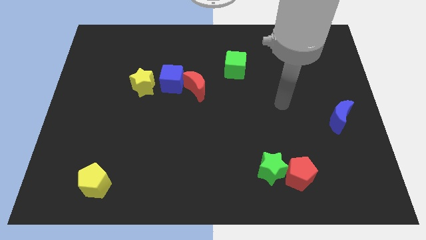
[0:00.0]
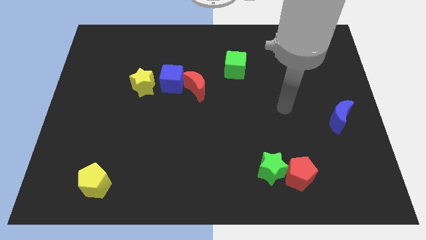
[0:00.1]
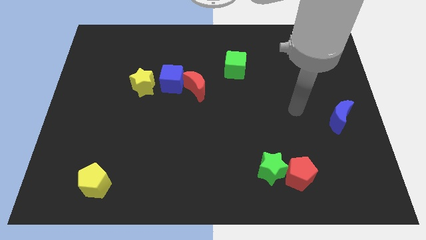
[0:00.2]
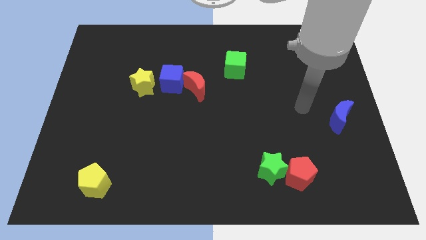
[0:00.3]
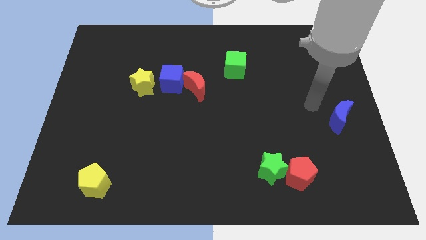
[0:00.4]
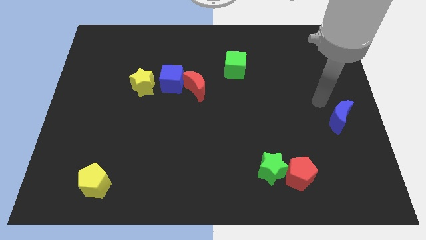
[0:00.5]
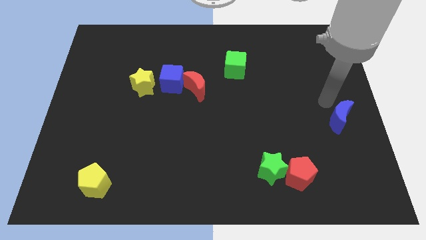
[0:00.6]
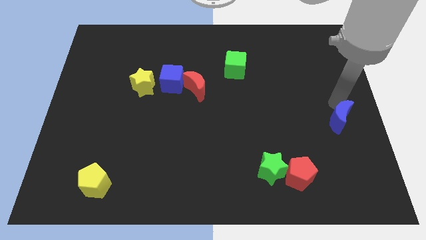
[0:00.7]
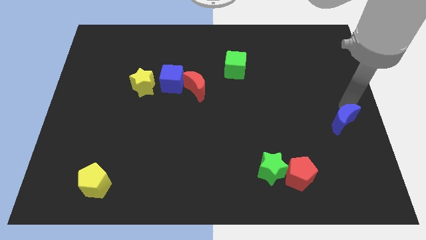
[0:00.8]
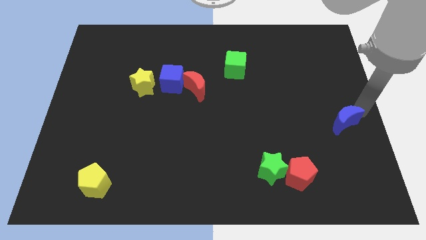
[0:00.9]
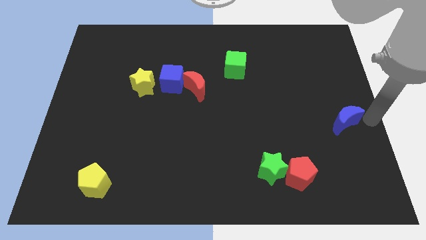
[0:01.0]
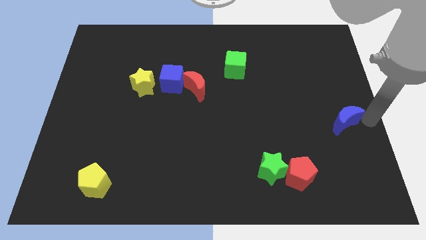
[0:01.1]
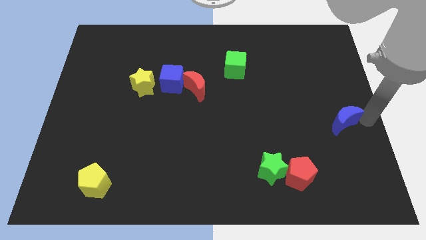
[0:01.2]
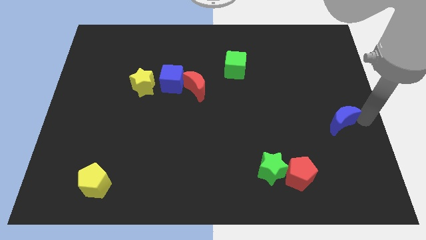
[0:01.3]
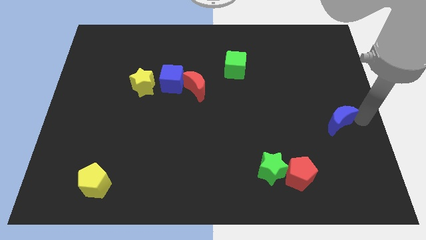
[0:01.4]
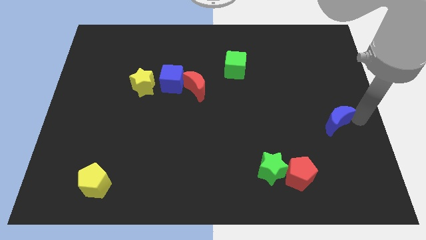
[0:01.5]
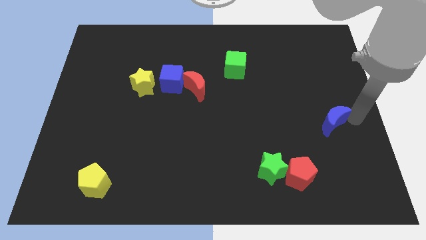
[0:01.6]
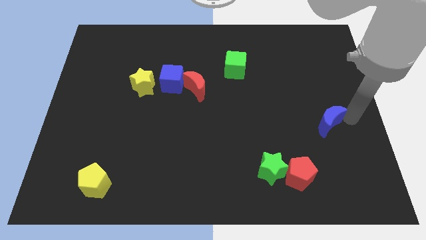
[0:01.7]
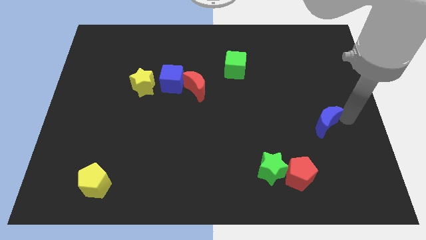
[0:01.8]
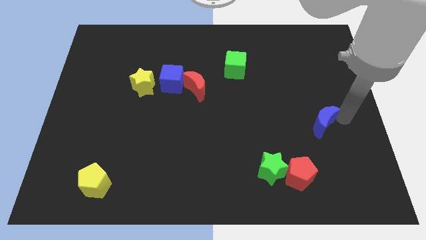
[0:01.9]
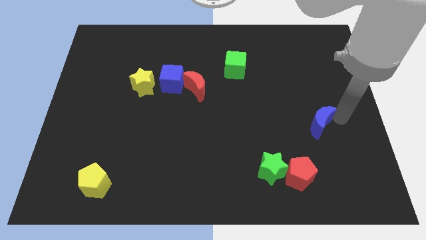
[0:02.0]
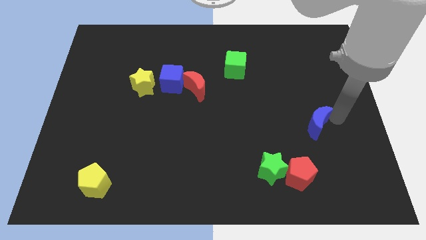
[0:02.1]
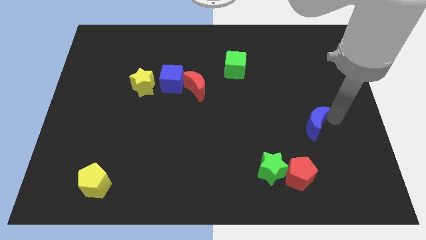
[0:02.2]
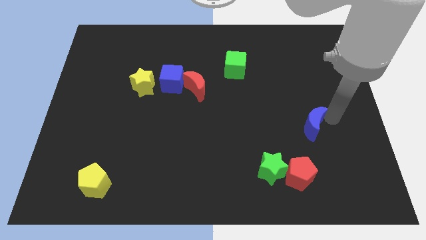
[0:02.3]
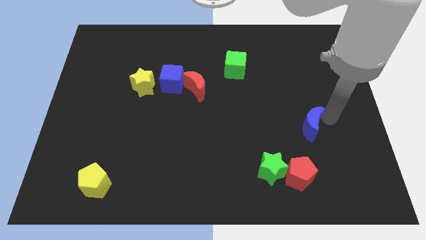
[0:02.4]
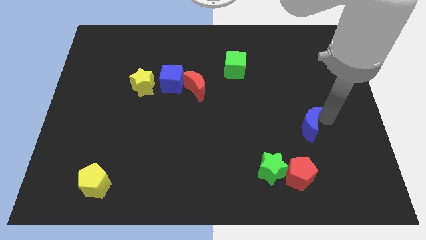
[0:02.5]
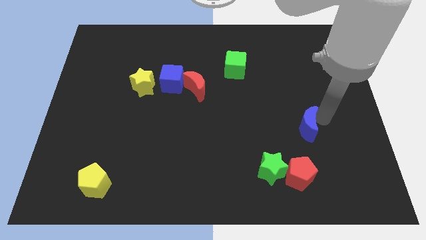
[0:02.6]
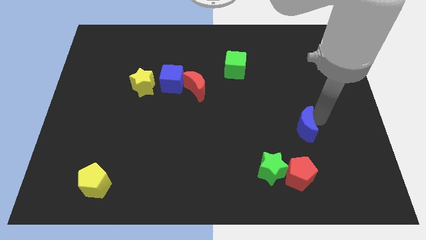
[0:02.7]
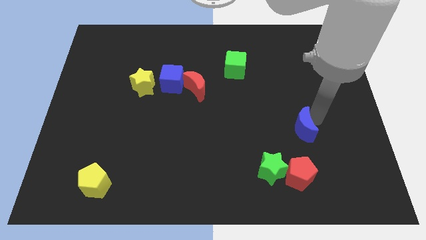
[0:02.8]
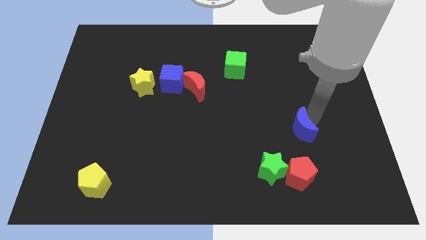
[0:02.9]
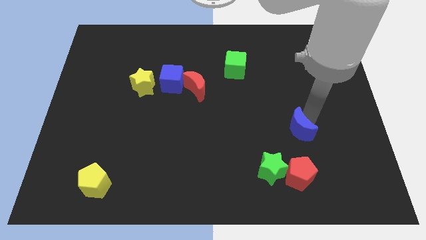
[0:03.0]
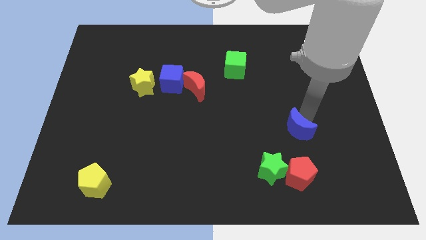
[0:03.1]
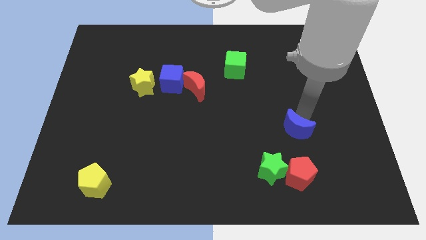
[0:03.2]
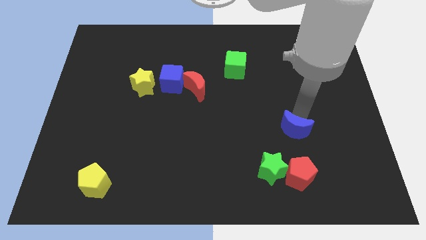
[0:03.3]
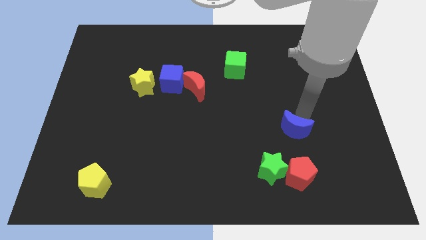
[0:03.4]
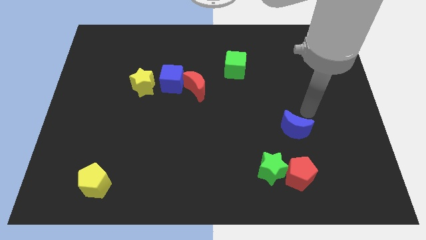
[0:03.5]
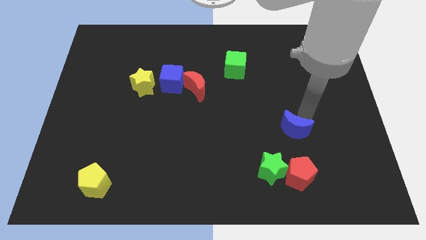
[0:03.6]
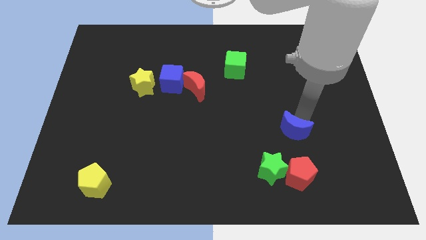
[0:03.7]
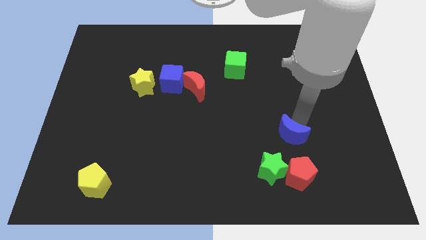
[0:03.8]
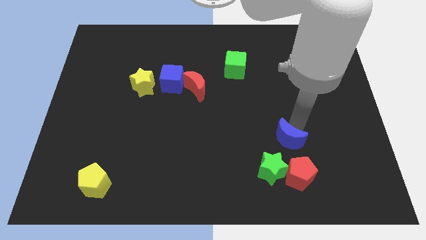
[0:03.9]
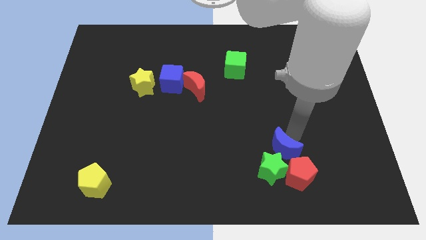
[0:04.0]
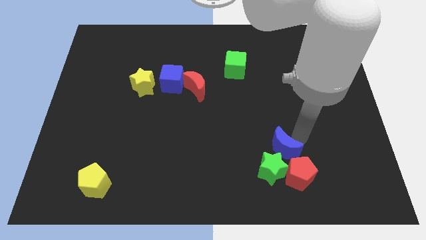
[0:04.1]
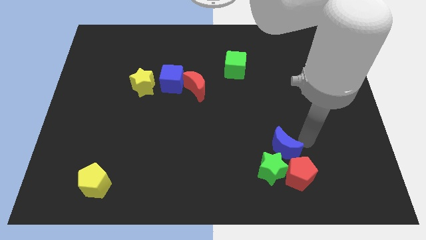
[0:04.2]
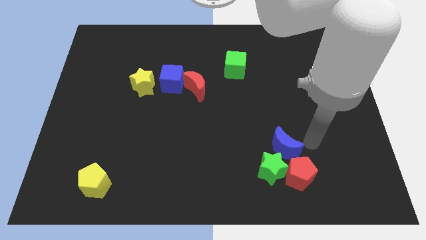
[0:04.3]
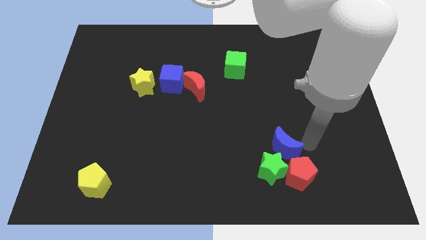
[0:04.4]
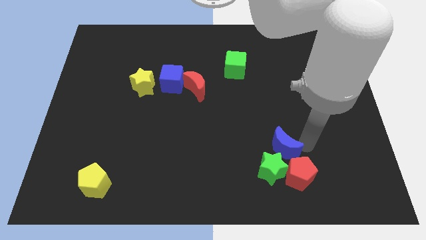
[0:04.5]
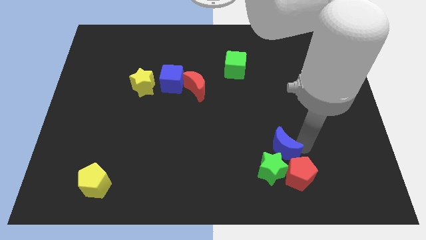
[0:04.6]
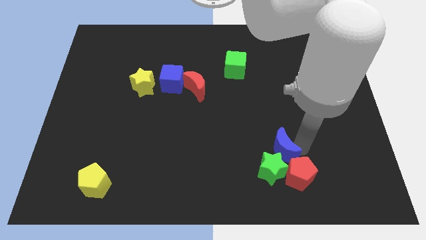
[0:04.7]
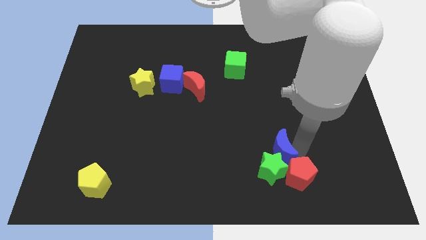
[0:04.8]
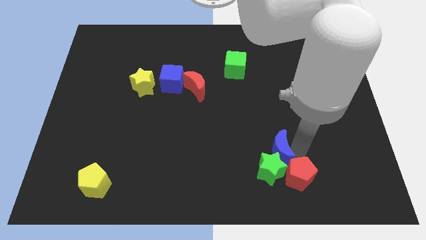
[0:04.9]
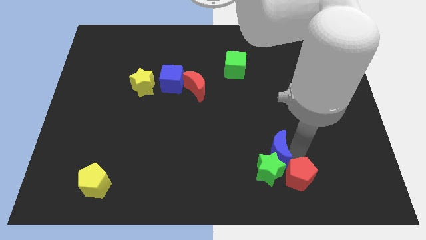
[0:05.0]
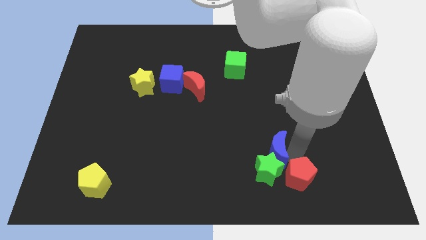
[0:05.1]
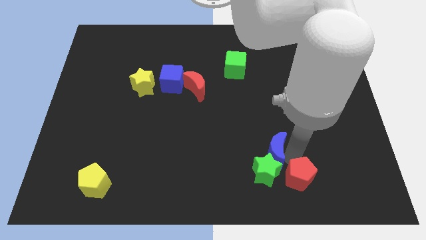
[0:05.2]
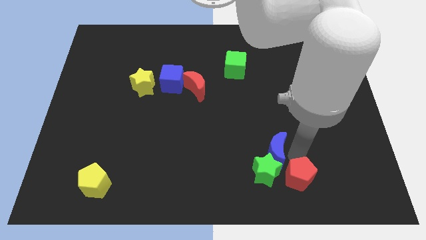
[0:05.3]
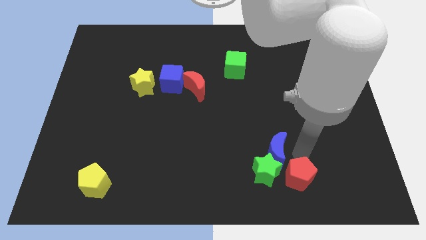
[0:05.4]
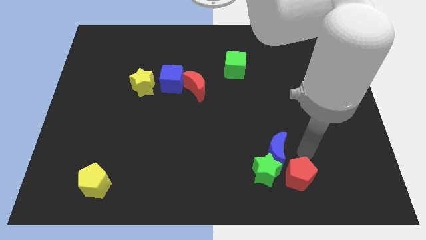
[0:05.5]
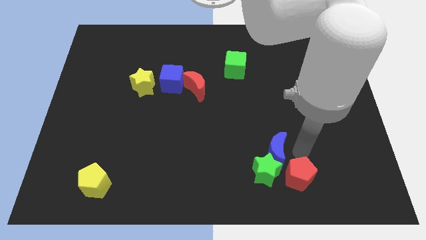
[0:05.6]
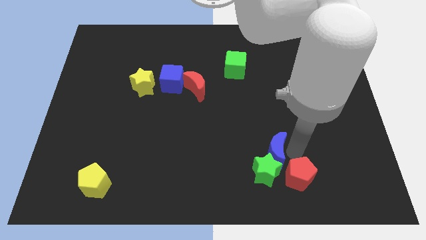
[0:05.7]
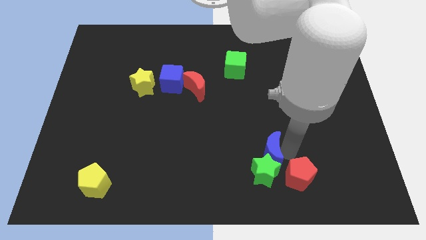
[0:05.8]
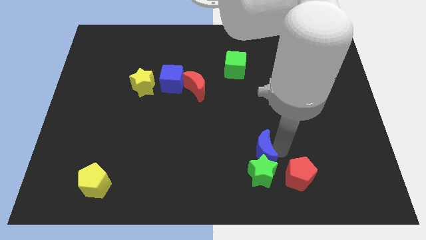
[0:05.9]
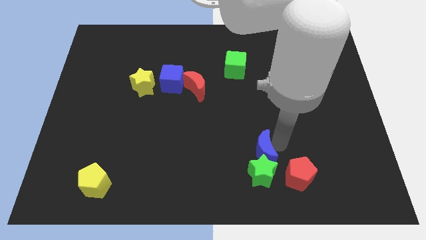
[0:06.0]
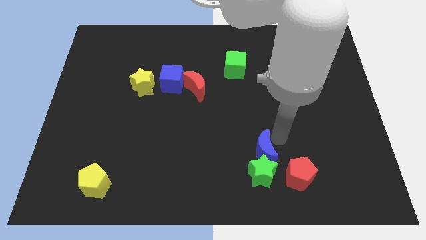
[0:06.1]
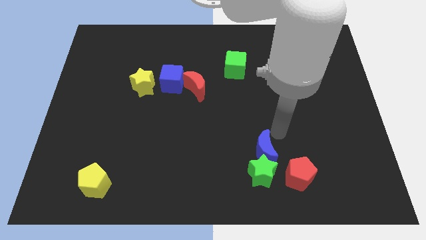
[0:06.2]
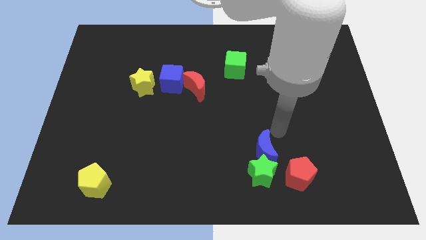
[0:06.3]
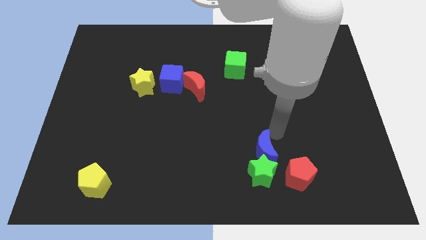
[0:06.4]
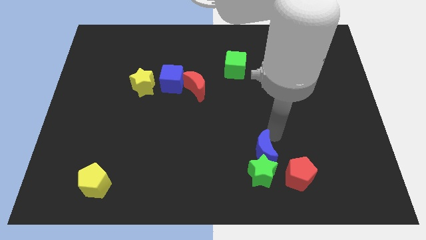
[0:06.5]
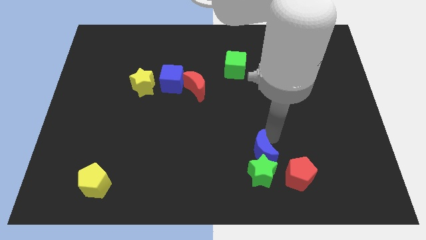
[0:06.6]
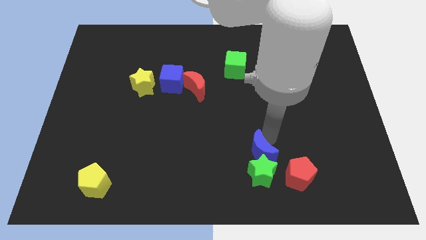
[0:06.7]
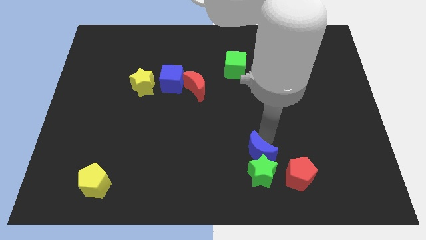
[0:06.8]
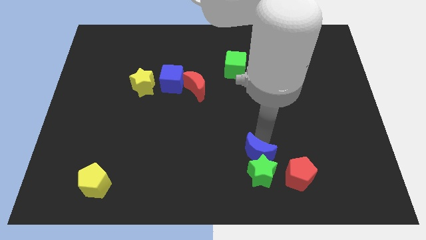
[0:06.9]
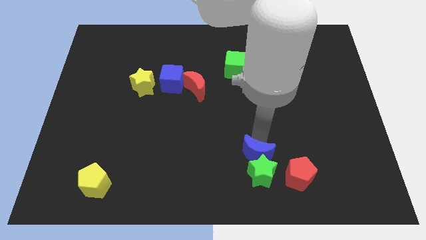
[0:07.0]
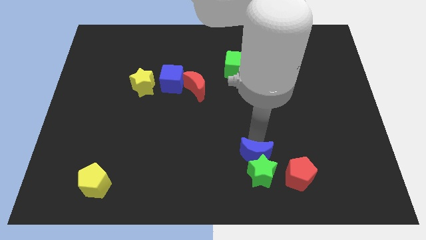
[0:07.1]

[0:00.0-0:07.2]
put the blue moon just left of the red pentagon

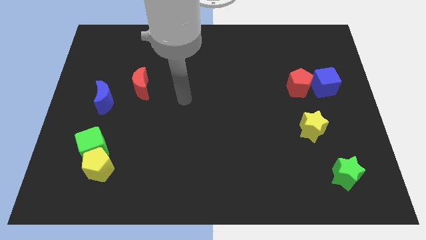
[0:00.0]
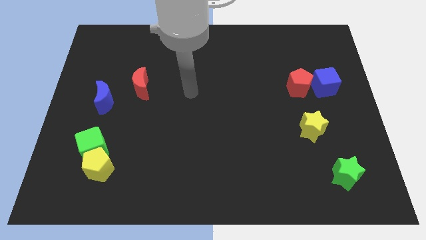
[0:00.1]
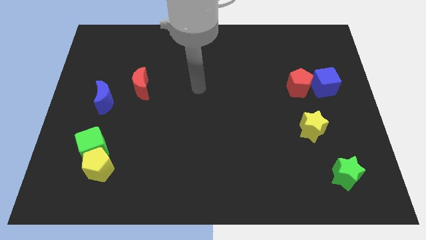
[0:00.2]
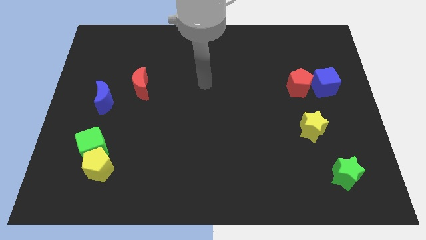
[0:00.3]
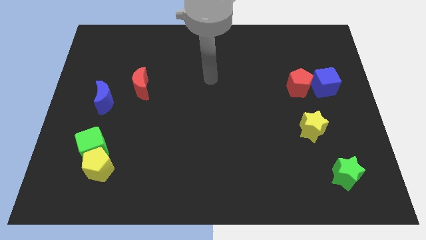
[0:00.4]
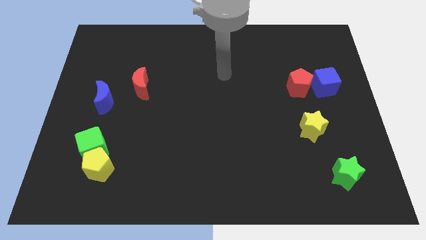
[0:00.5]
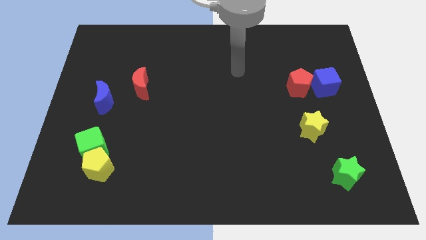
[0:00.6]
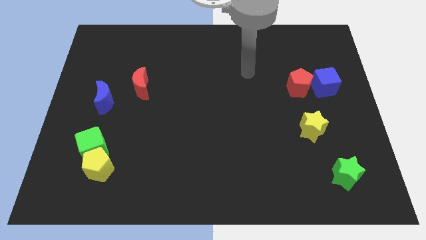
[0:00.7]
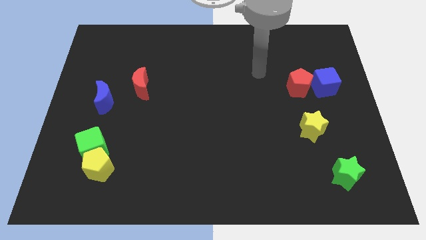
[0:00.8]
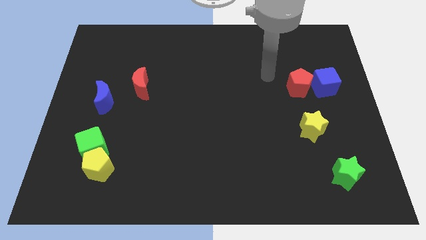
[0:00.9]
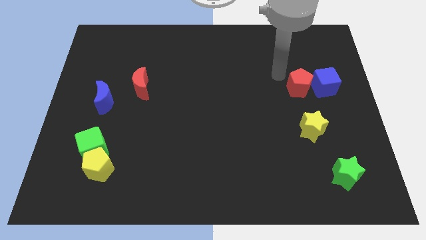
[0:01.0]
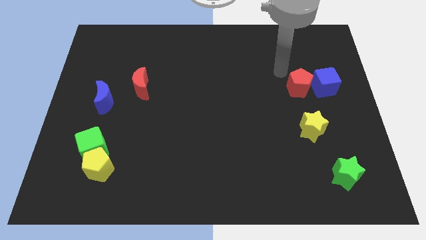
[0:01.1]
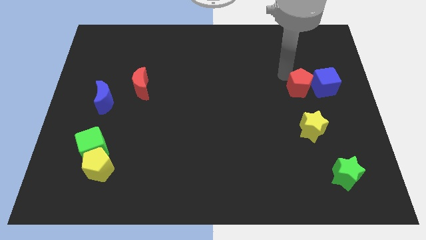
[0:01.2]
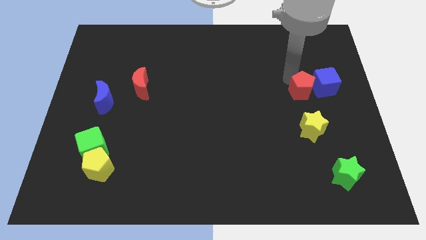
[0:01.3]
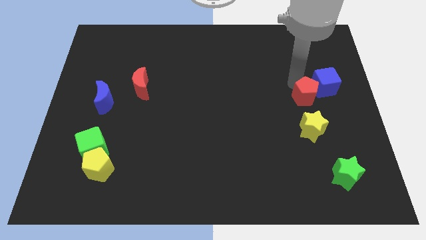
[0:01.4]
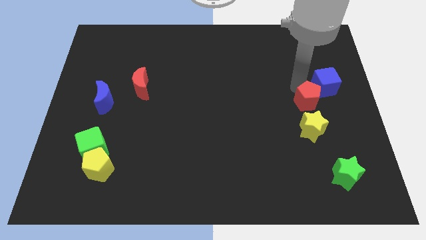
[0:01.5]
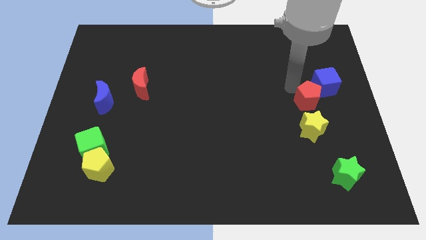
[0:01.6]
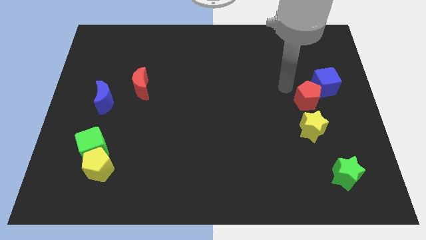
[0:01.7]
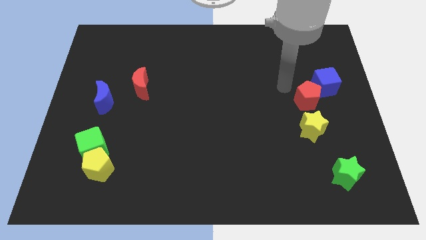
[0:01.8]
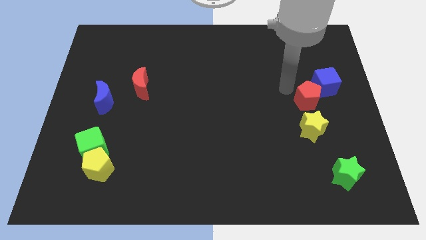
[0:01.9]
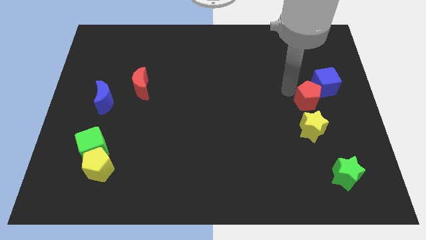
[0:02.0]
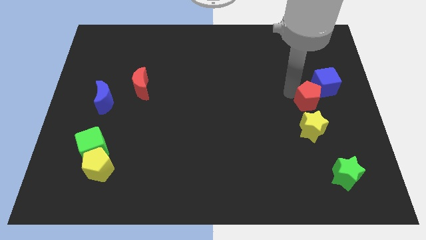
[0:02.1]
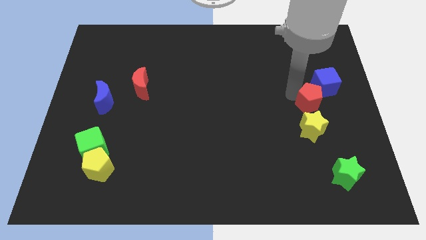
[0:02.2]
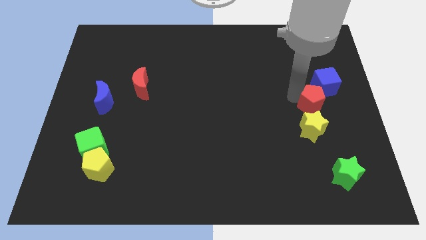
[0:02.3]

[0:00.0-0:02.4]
push the red pentagon diagonally up and to the right of the yellow star
